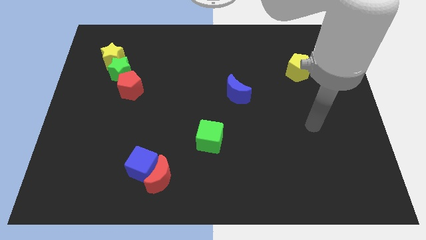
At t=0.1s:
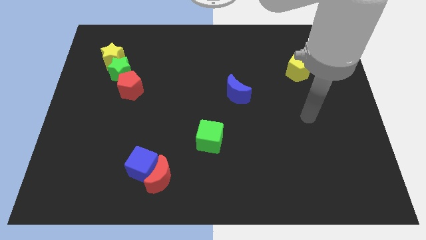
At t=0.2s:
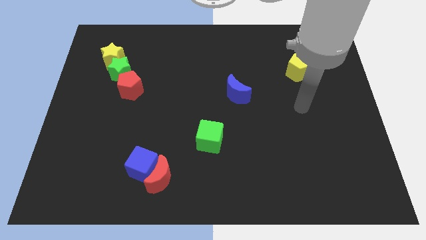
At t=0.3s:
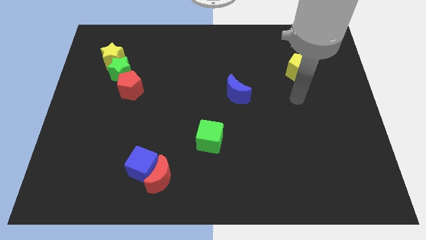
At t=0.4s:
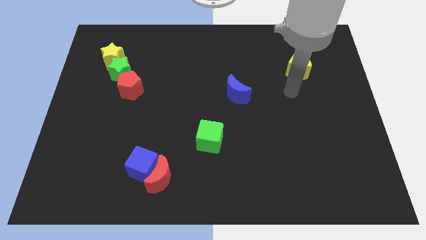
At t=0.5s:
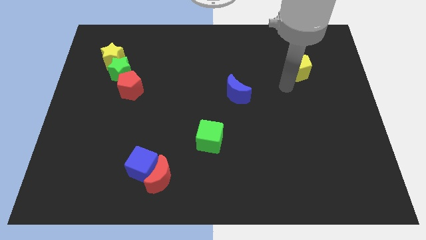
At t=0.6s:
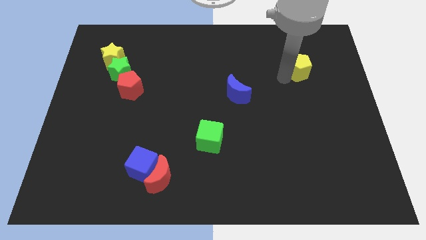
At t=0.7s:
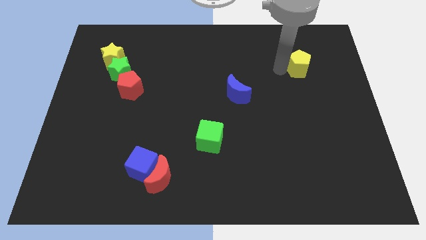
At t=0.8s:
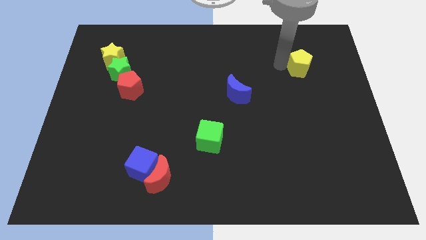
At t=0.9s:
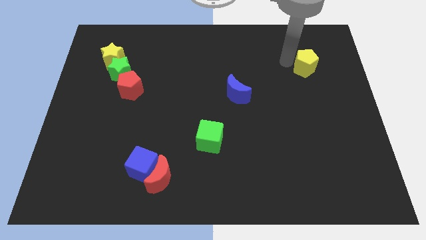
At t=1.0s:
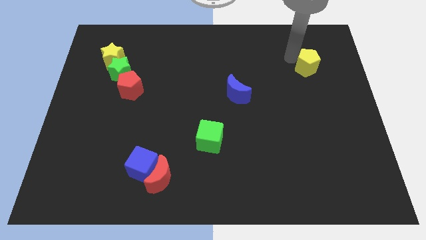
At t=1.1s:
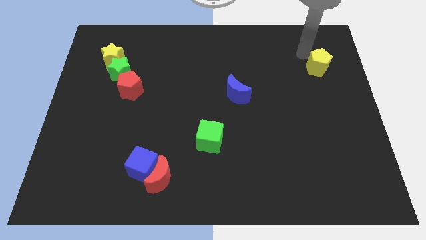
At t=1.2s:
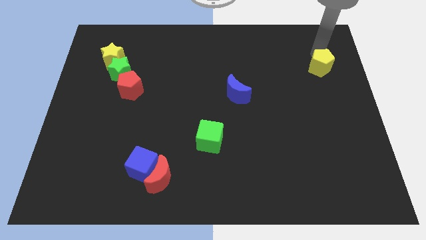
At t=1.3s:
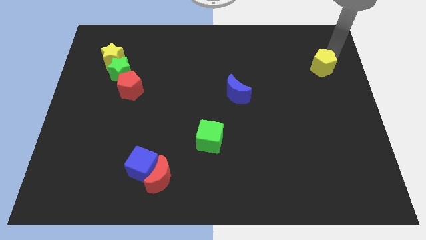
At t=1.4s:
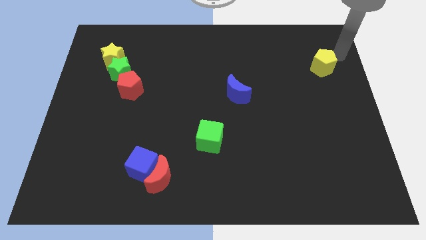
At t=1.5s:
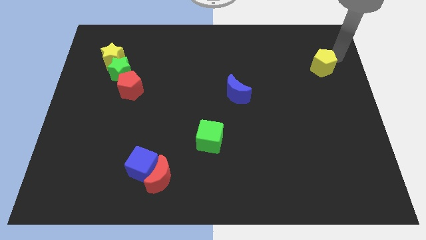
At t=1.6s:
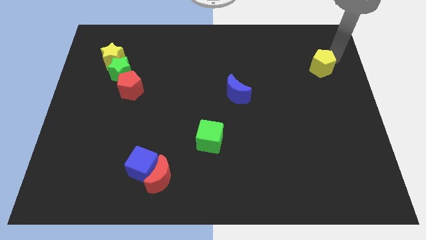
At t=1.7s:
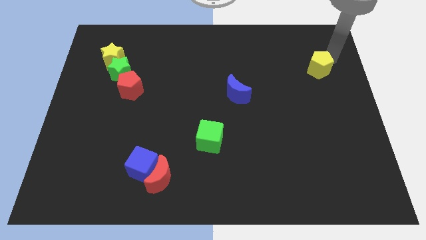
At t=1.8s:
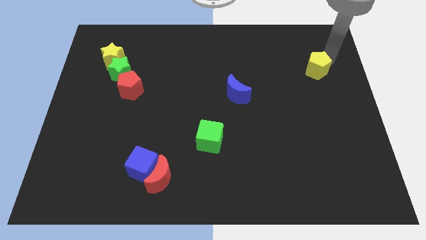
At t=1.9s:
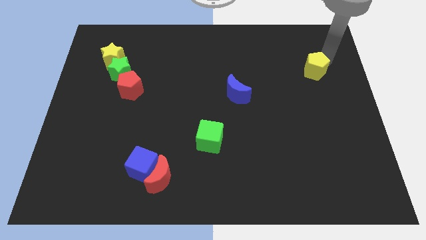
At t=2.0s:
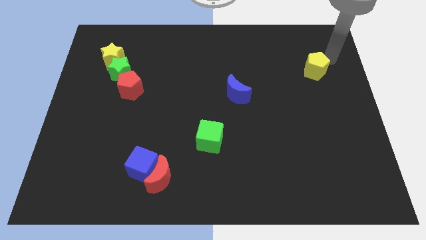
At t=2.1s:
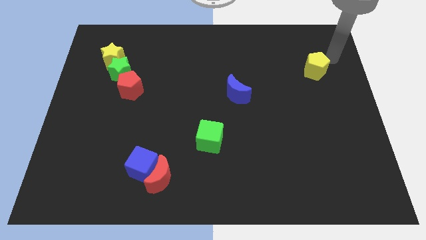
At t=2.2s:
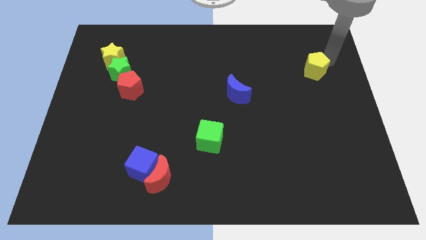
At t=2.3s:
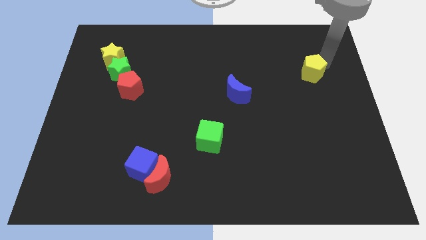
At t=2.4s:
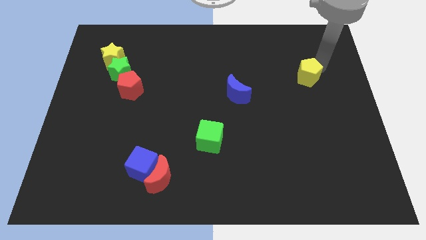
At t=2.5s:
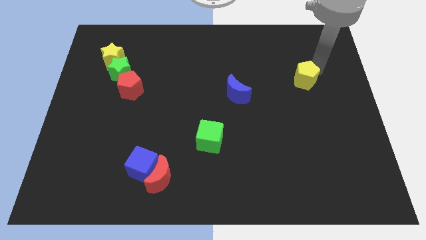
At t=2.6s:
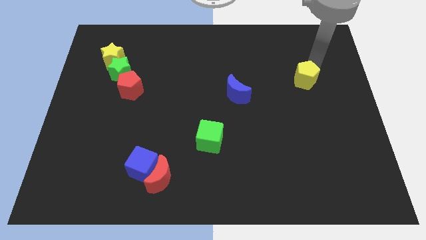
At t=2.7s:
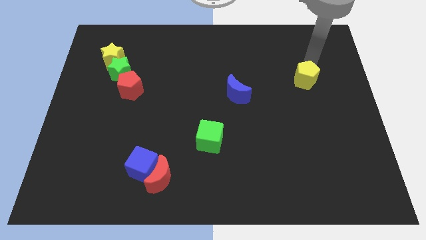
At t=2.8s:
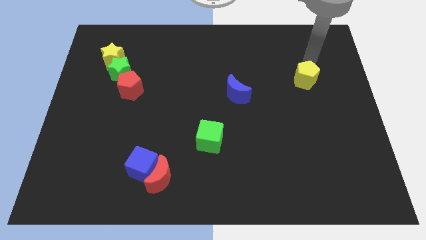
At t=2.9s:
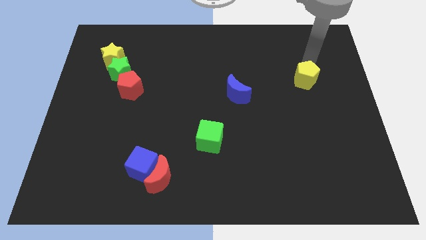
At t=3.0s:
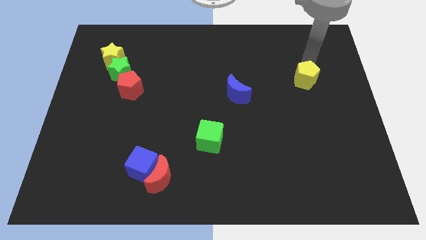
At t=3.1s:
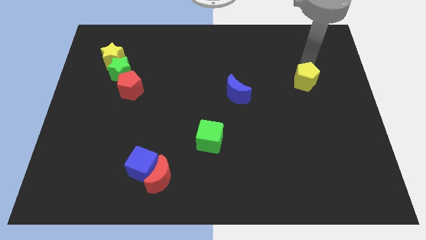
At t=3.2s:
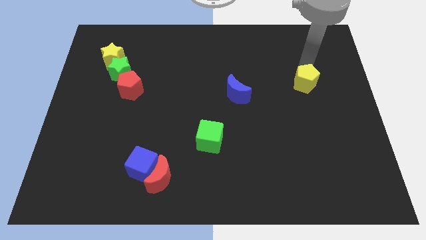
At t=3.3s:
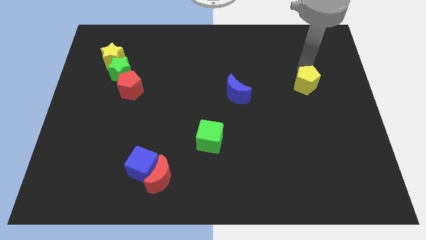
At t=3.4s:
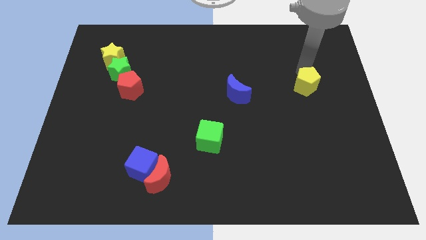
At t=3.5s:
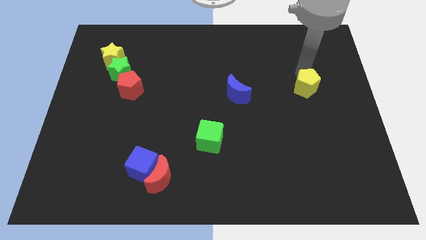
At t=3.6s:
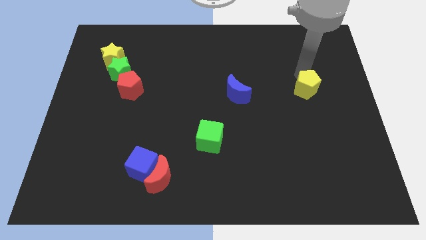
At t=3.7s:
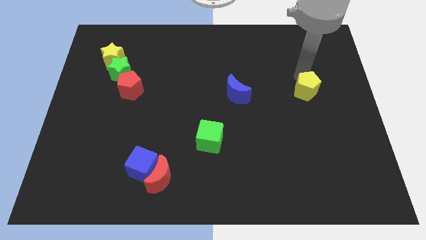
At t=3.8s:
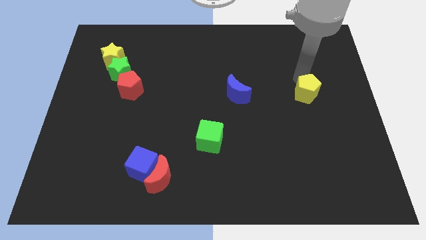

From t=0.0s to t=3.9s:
push the yellow pentagon downwards slightly

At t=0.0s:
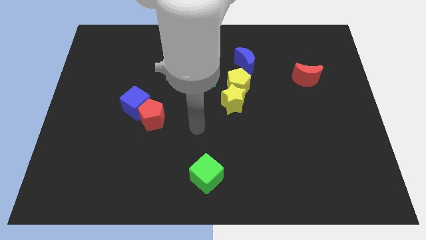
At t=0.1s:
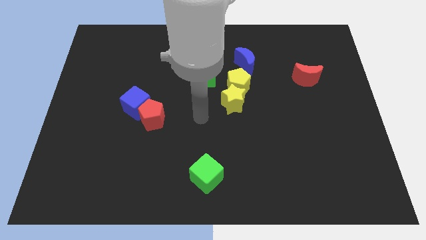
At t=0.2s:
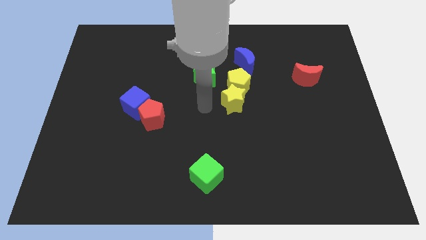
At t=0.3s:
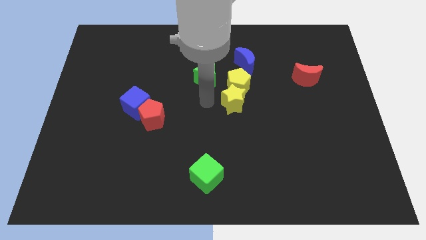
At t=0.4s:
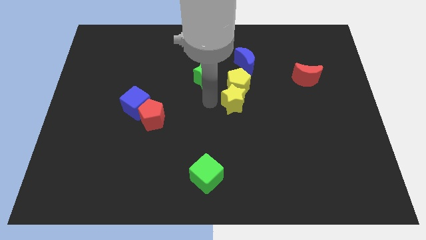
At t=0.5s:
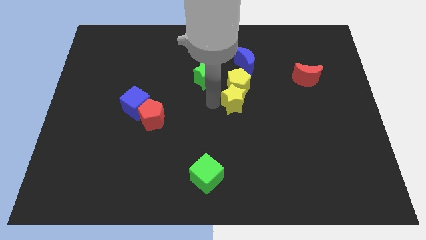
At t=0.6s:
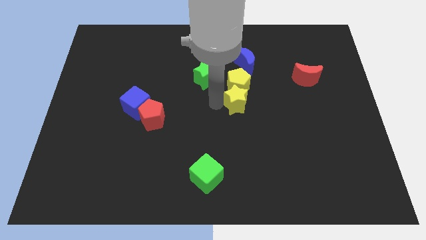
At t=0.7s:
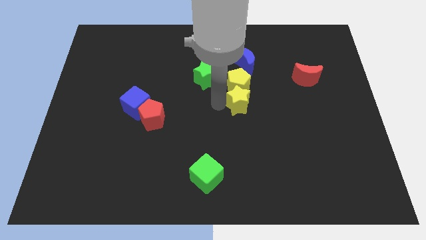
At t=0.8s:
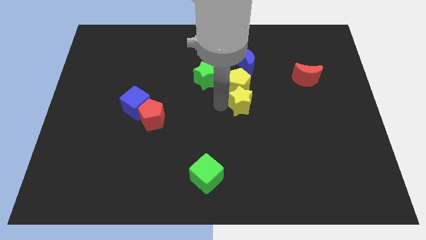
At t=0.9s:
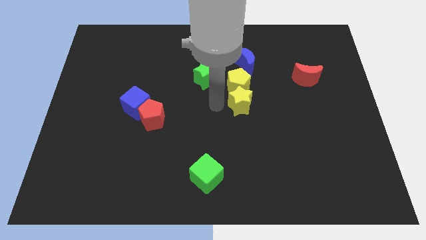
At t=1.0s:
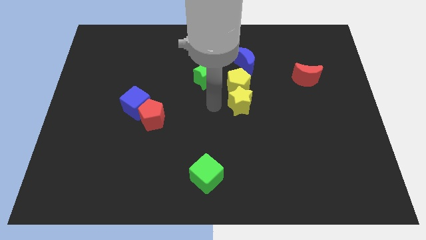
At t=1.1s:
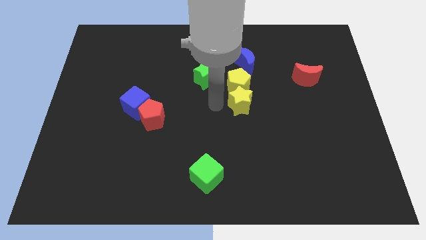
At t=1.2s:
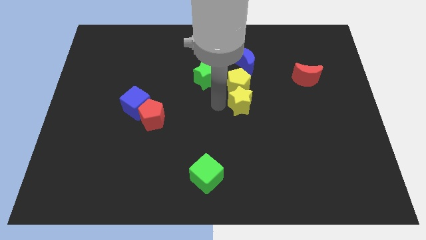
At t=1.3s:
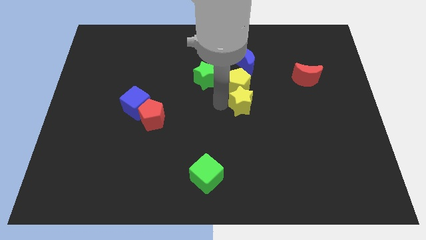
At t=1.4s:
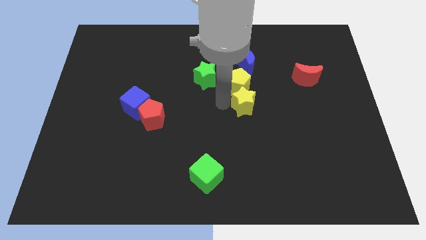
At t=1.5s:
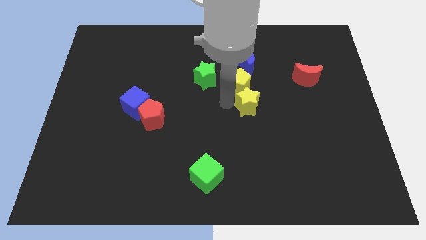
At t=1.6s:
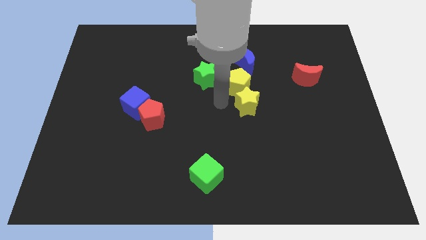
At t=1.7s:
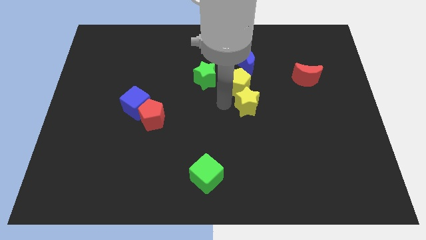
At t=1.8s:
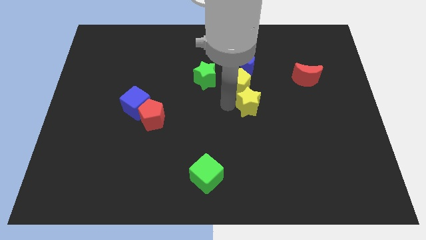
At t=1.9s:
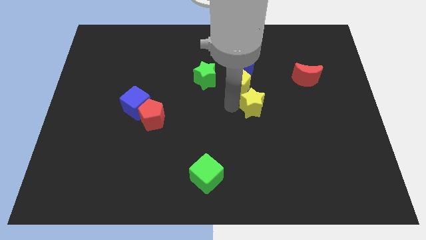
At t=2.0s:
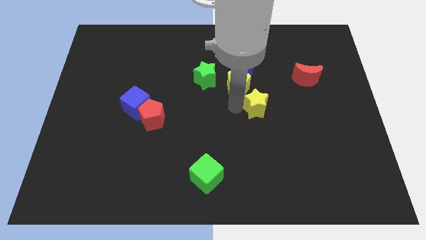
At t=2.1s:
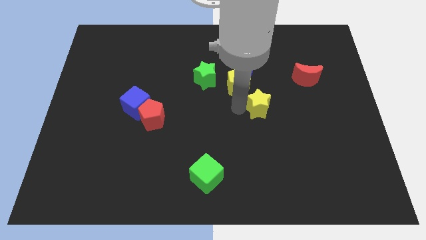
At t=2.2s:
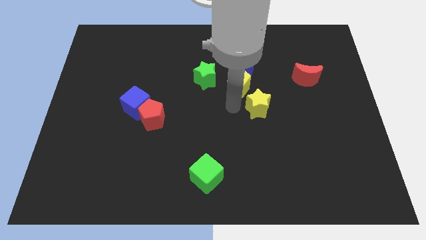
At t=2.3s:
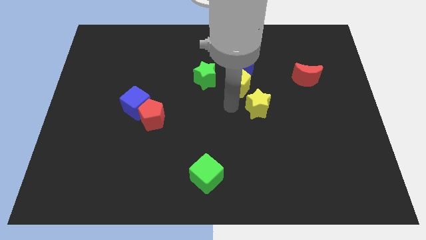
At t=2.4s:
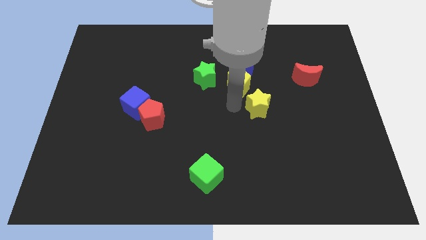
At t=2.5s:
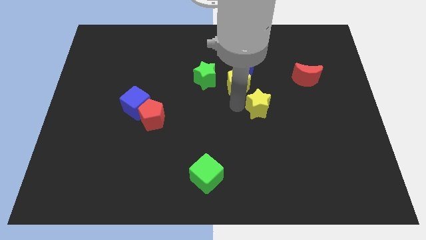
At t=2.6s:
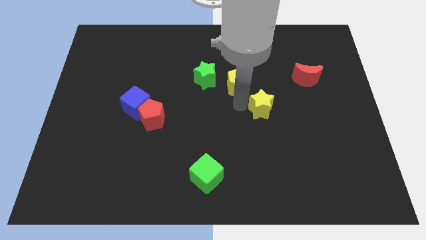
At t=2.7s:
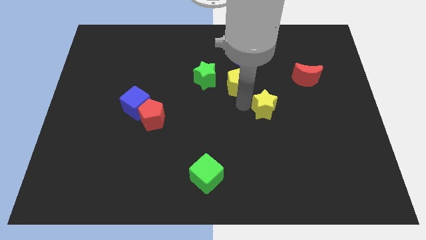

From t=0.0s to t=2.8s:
slightly push the yellow star right

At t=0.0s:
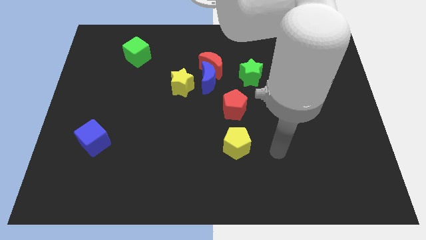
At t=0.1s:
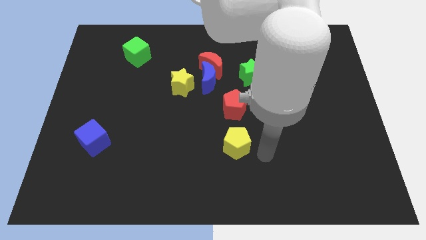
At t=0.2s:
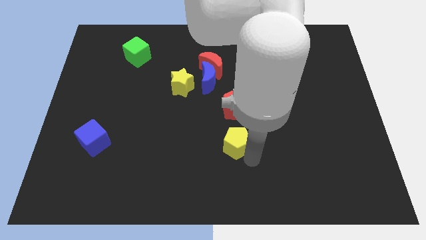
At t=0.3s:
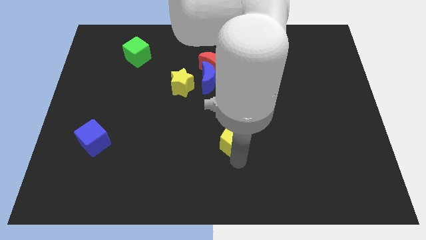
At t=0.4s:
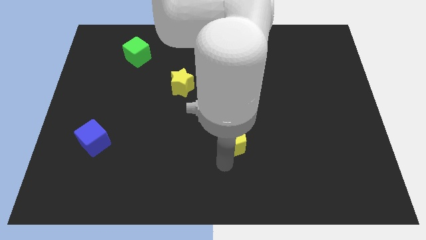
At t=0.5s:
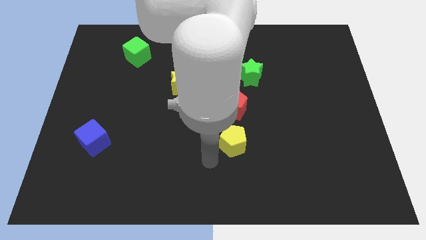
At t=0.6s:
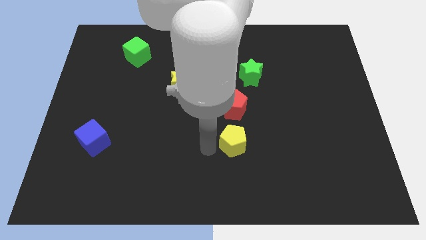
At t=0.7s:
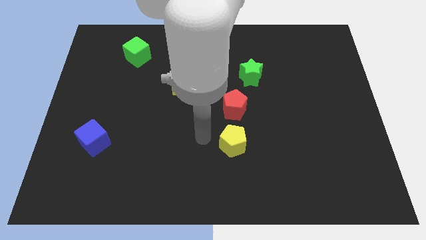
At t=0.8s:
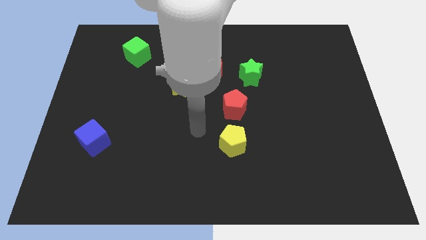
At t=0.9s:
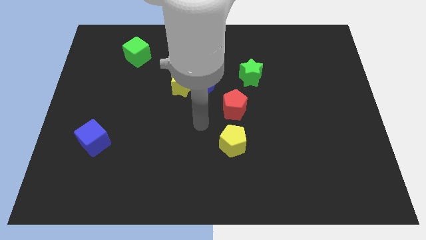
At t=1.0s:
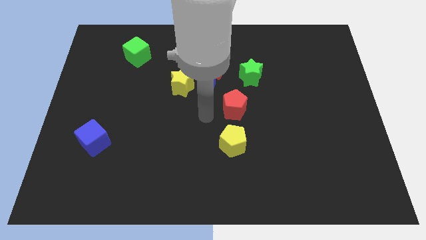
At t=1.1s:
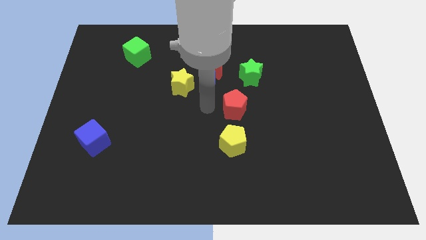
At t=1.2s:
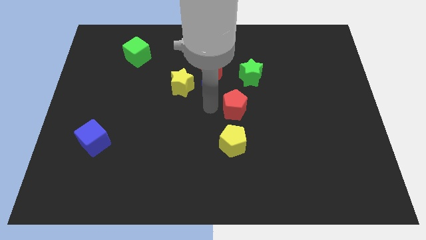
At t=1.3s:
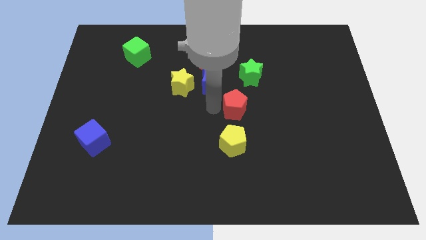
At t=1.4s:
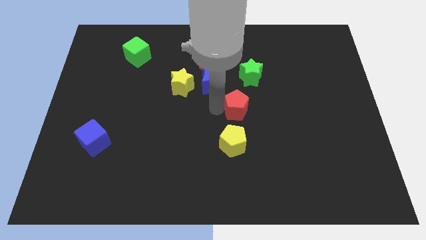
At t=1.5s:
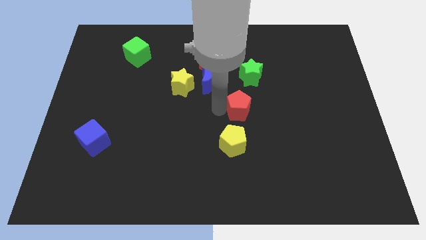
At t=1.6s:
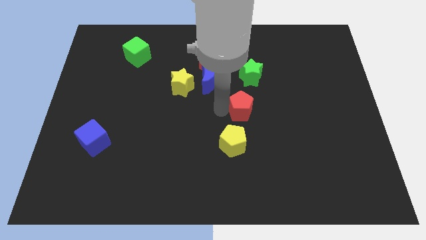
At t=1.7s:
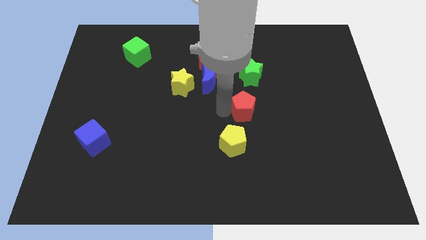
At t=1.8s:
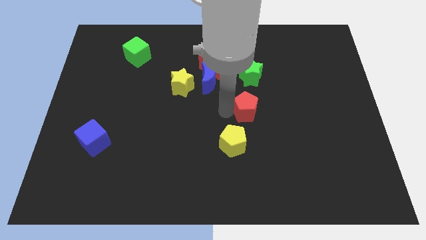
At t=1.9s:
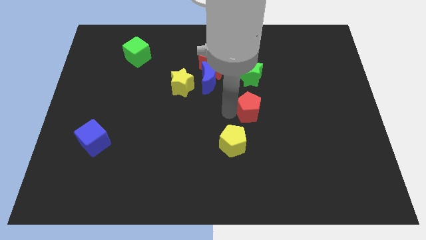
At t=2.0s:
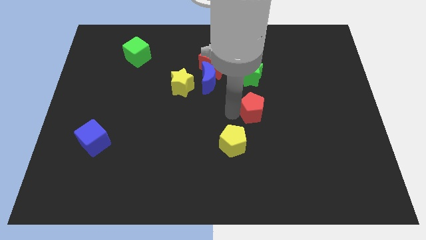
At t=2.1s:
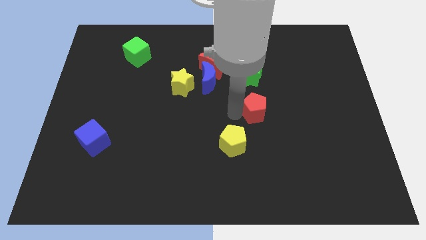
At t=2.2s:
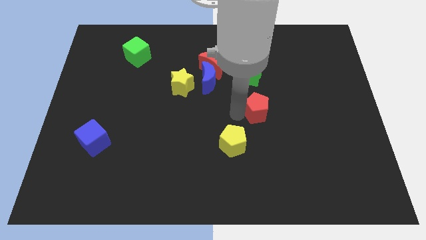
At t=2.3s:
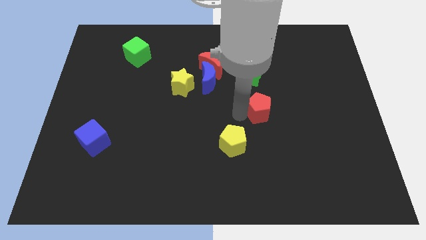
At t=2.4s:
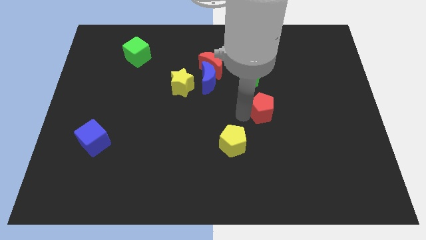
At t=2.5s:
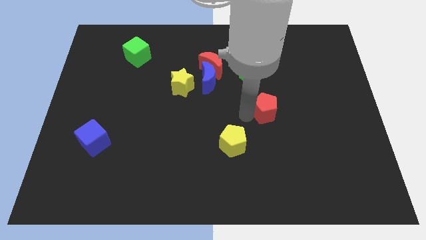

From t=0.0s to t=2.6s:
push the red pentagon right somewhat
